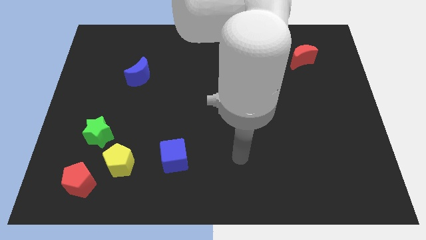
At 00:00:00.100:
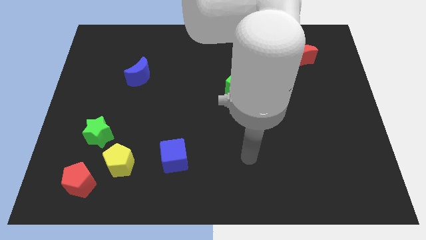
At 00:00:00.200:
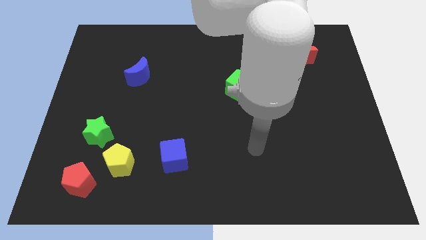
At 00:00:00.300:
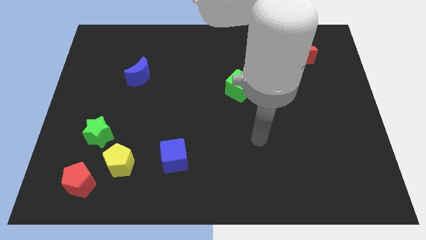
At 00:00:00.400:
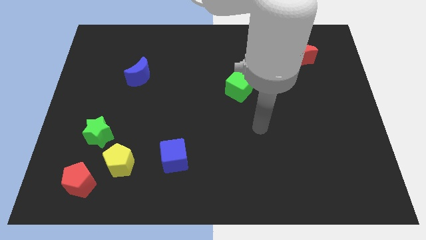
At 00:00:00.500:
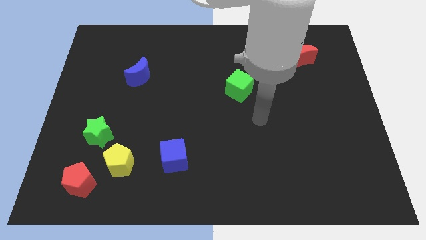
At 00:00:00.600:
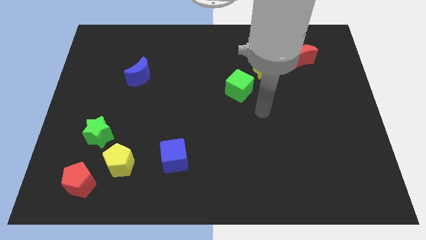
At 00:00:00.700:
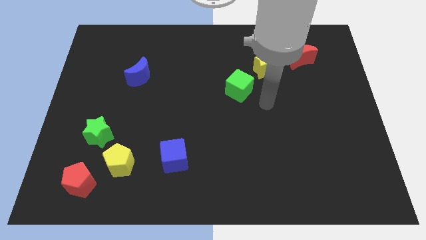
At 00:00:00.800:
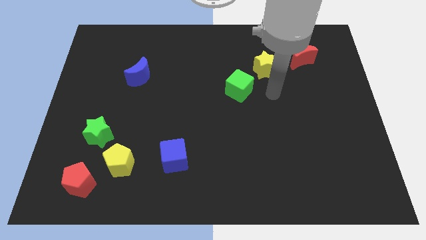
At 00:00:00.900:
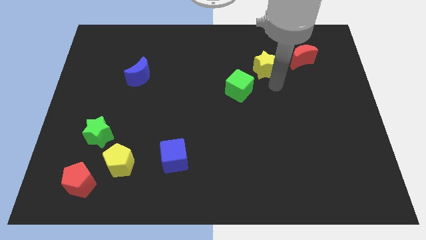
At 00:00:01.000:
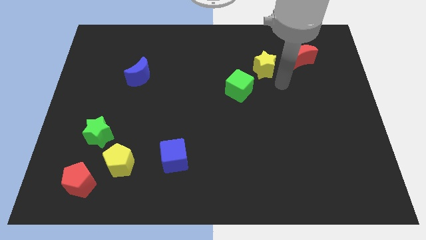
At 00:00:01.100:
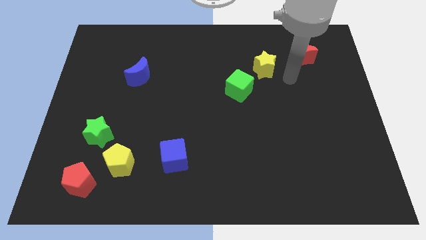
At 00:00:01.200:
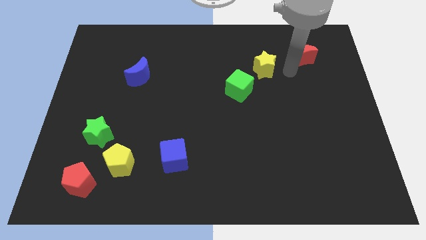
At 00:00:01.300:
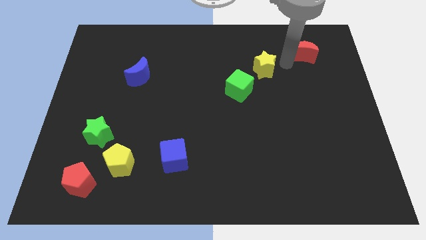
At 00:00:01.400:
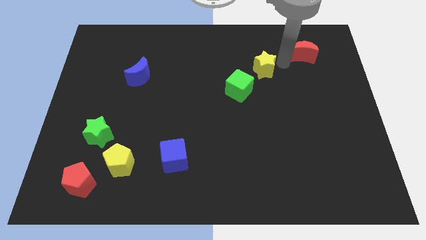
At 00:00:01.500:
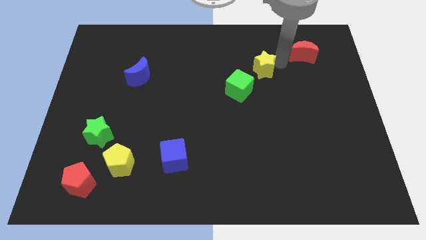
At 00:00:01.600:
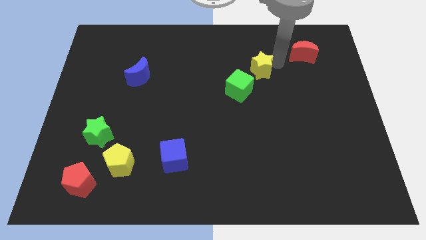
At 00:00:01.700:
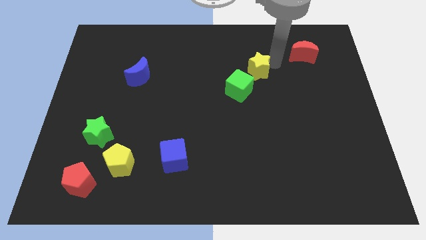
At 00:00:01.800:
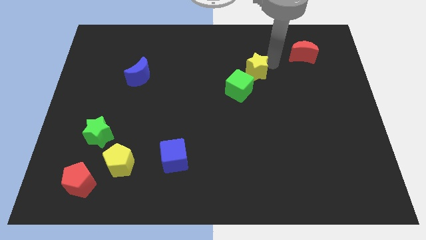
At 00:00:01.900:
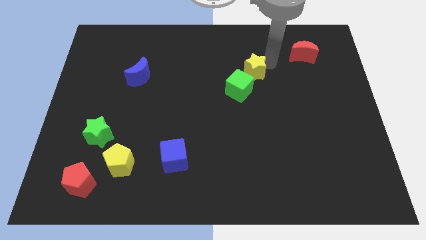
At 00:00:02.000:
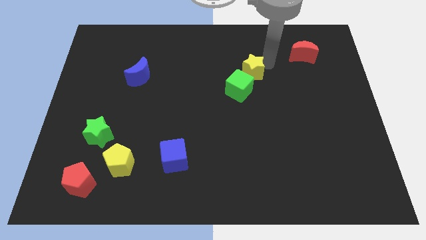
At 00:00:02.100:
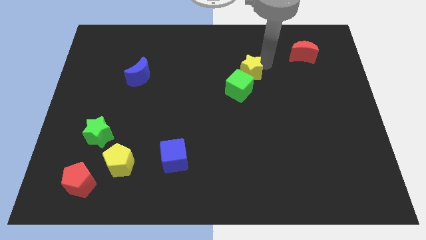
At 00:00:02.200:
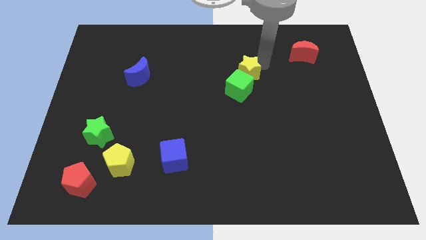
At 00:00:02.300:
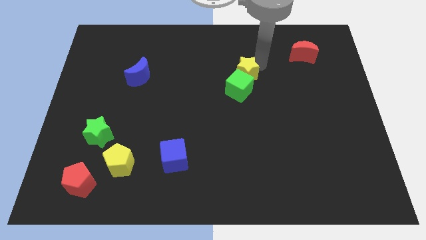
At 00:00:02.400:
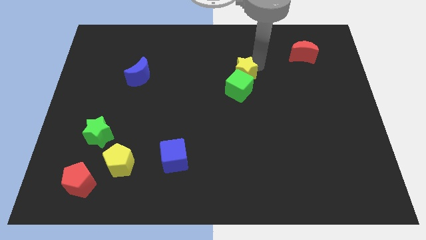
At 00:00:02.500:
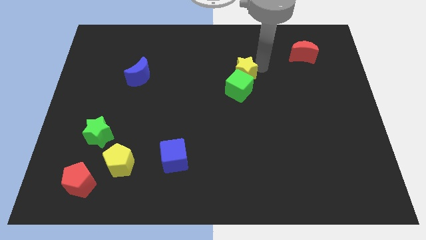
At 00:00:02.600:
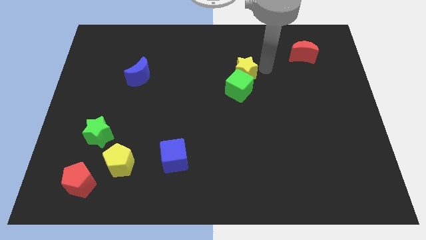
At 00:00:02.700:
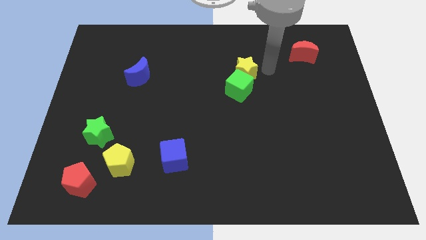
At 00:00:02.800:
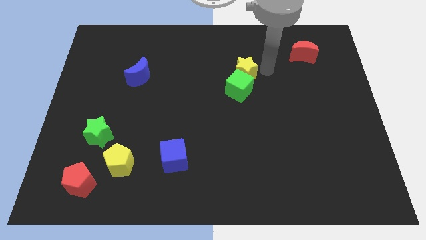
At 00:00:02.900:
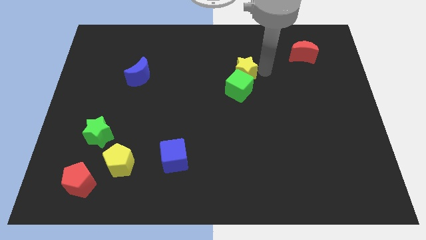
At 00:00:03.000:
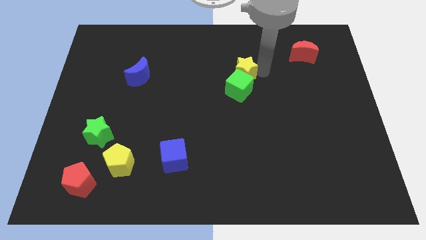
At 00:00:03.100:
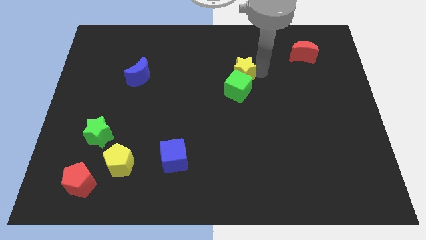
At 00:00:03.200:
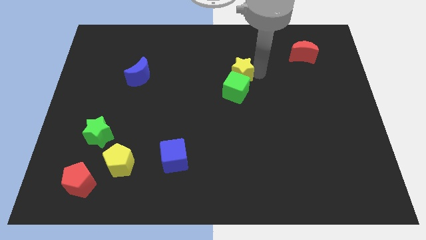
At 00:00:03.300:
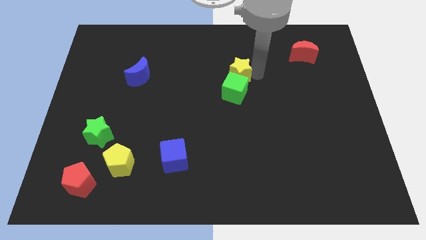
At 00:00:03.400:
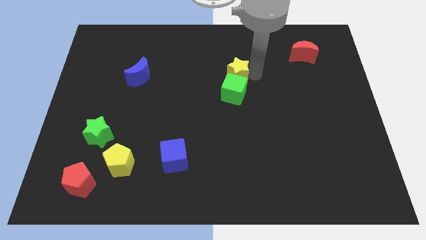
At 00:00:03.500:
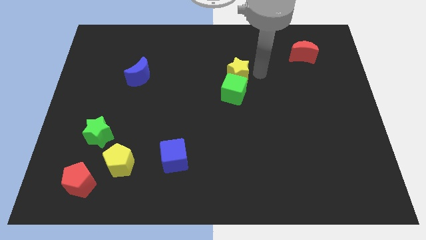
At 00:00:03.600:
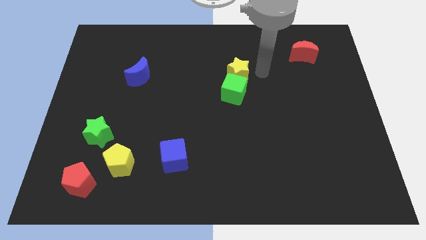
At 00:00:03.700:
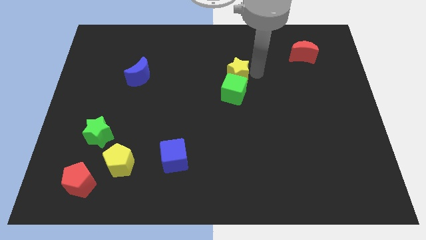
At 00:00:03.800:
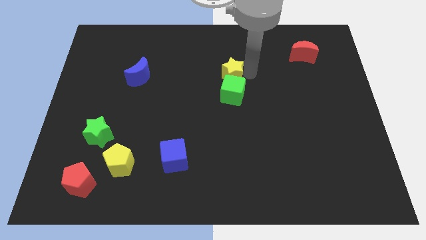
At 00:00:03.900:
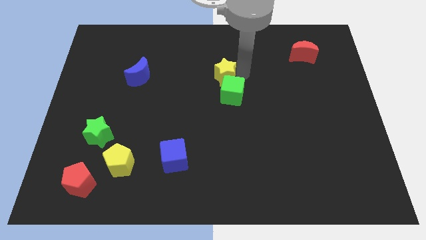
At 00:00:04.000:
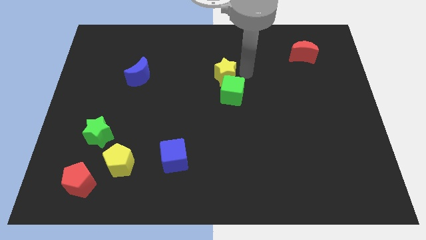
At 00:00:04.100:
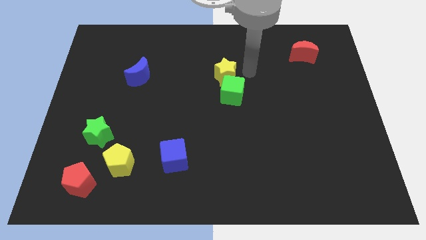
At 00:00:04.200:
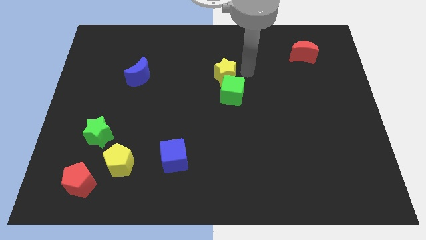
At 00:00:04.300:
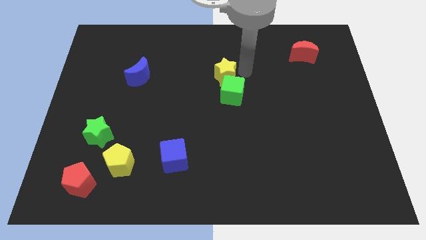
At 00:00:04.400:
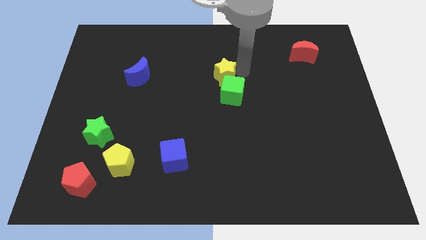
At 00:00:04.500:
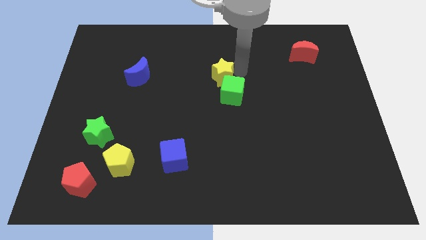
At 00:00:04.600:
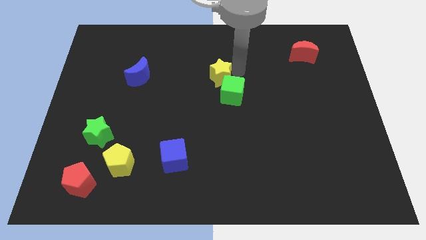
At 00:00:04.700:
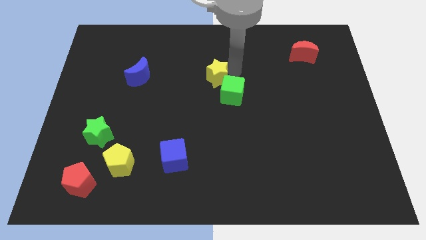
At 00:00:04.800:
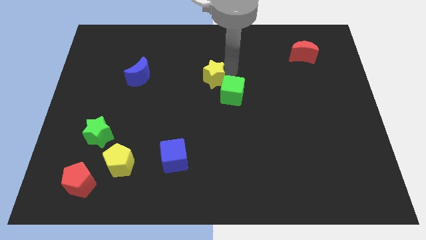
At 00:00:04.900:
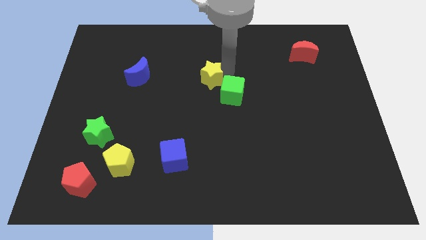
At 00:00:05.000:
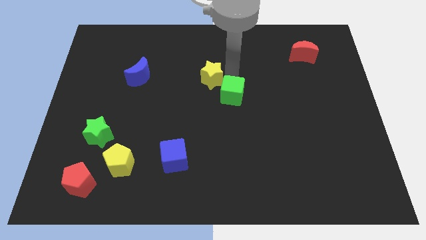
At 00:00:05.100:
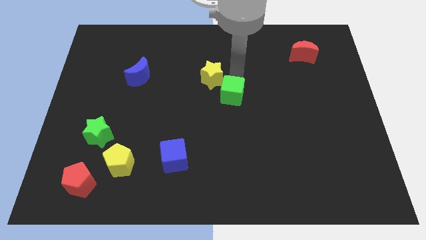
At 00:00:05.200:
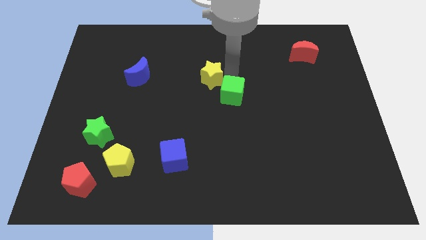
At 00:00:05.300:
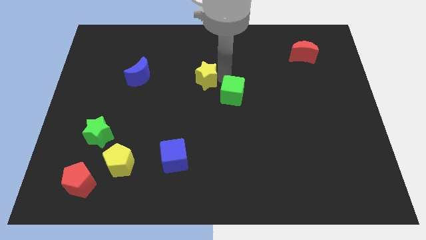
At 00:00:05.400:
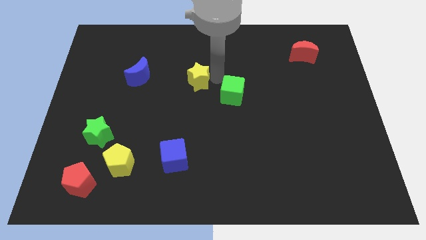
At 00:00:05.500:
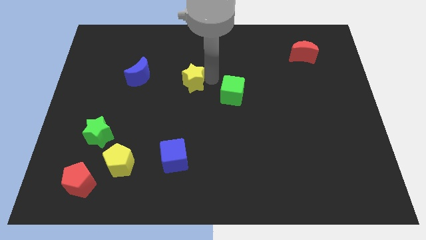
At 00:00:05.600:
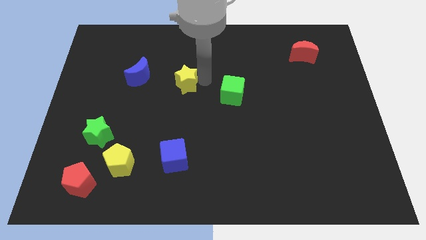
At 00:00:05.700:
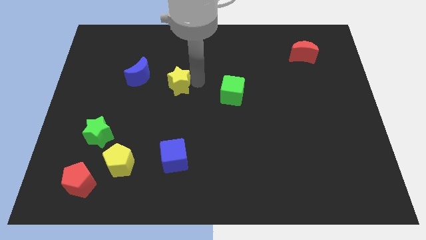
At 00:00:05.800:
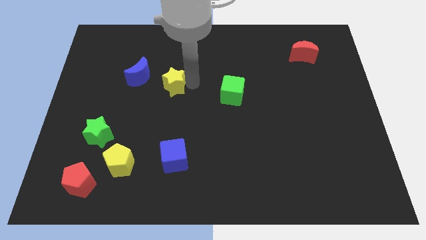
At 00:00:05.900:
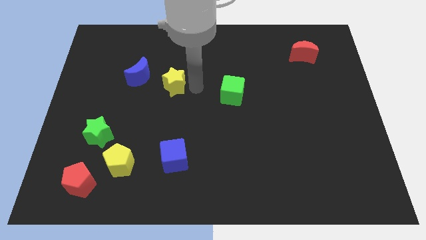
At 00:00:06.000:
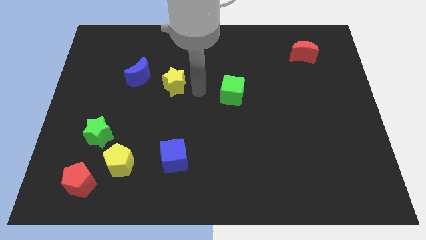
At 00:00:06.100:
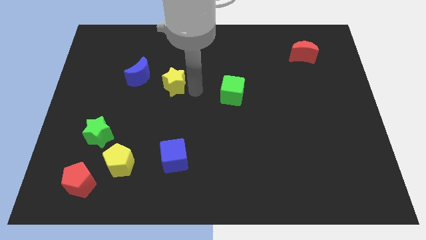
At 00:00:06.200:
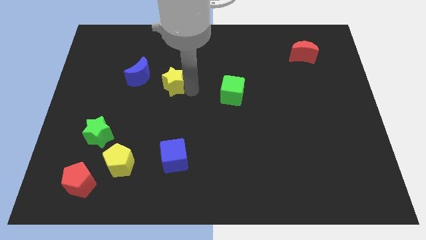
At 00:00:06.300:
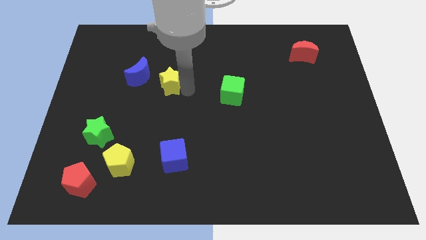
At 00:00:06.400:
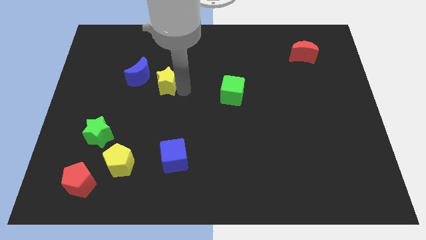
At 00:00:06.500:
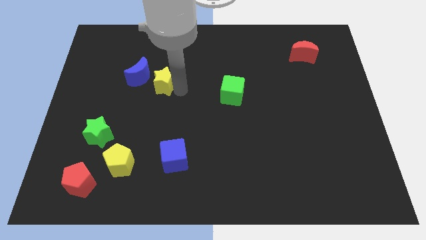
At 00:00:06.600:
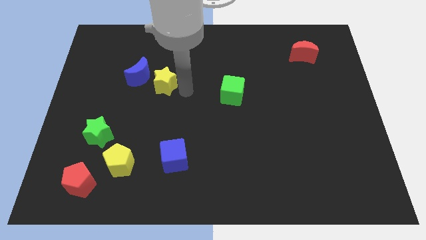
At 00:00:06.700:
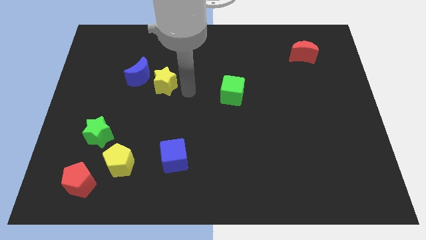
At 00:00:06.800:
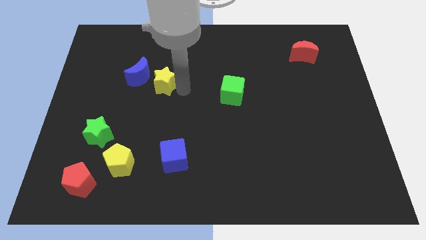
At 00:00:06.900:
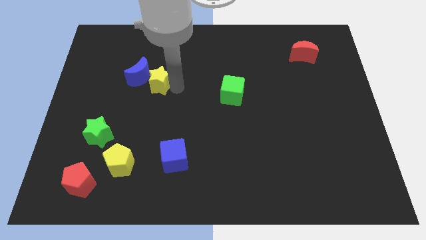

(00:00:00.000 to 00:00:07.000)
put the yellow star towards the blue moon

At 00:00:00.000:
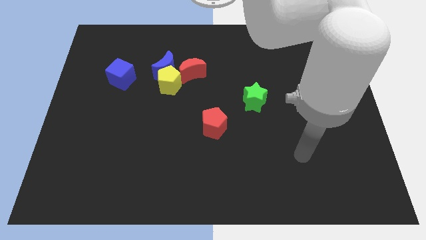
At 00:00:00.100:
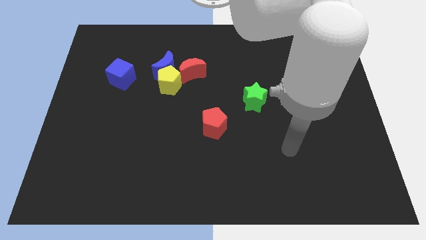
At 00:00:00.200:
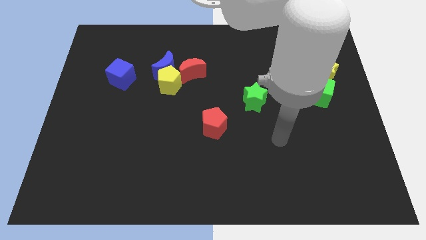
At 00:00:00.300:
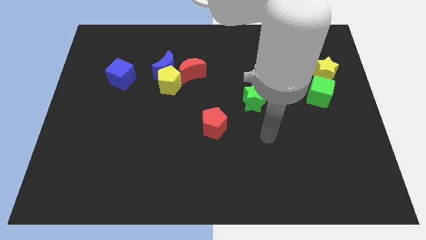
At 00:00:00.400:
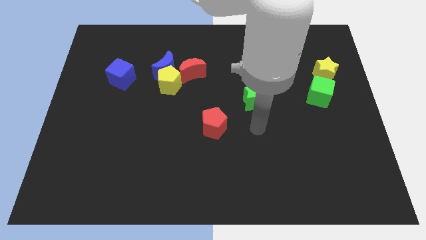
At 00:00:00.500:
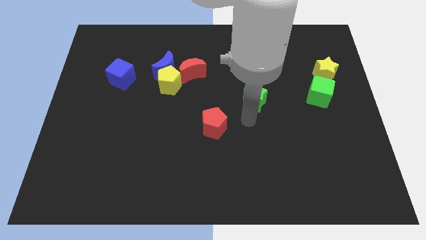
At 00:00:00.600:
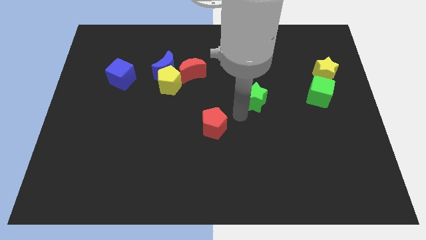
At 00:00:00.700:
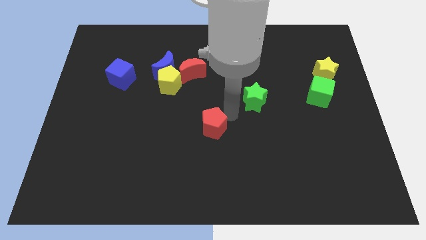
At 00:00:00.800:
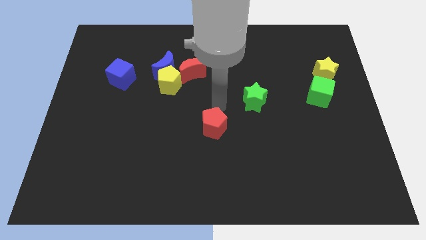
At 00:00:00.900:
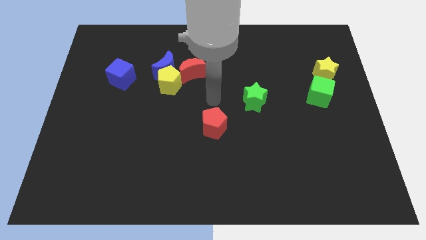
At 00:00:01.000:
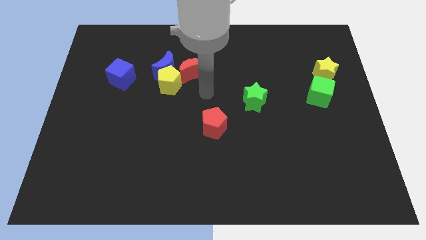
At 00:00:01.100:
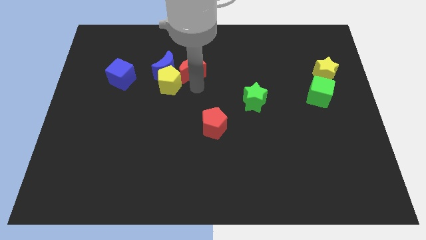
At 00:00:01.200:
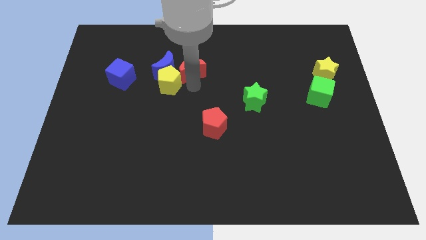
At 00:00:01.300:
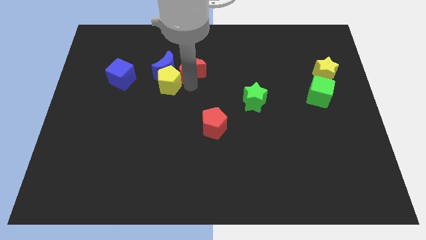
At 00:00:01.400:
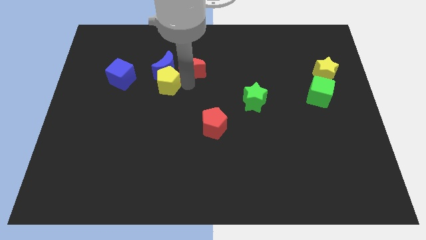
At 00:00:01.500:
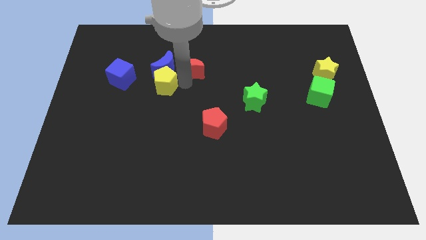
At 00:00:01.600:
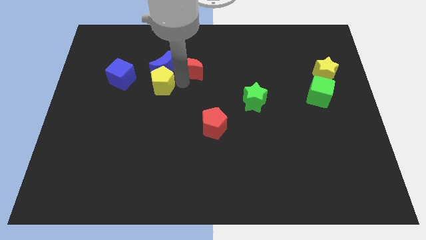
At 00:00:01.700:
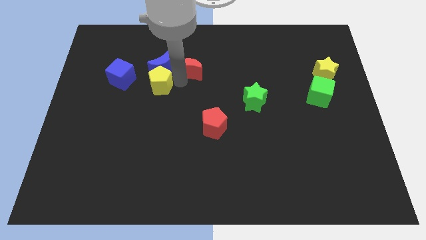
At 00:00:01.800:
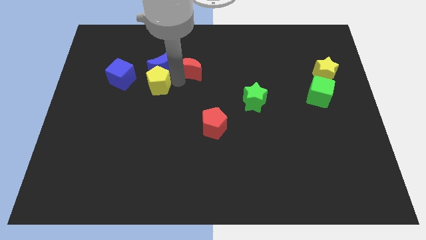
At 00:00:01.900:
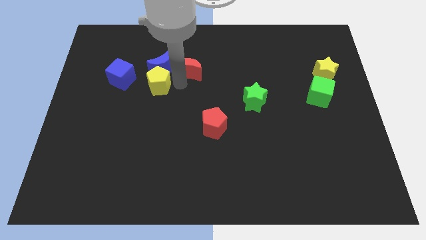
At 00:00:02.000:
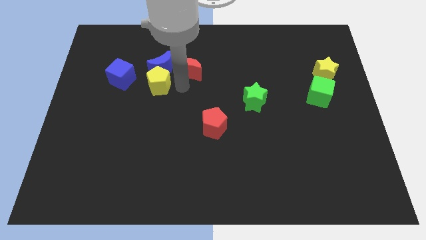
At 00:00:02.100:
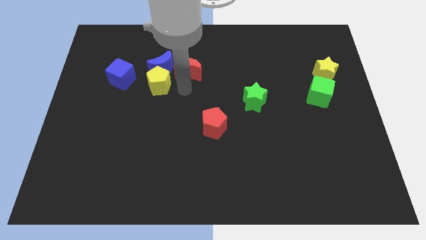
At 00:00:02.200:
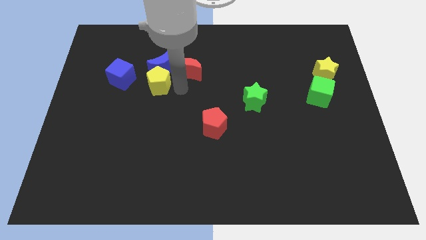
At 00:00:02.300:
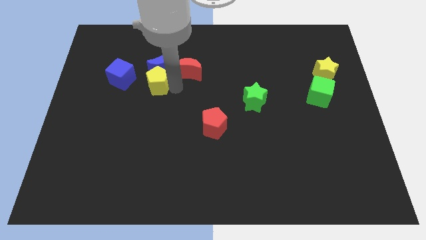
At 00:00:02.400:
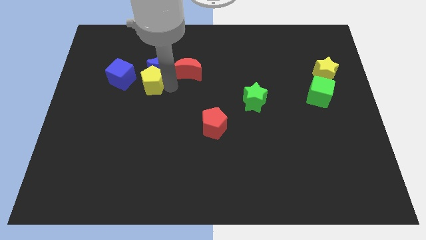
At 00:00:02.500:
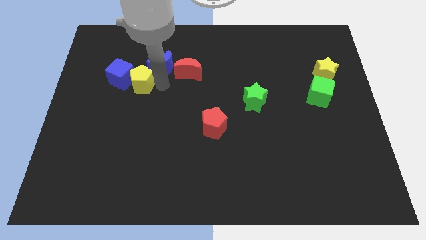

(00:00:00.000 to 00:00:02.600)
move the yellow pentagon to the blue cube
